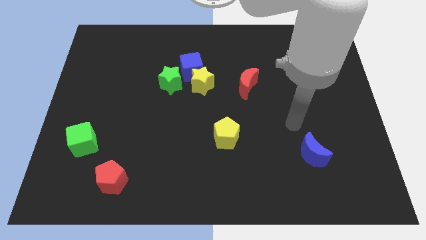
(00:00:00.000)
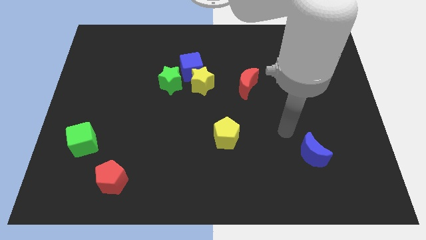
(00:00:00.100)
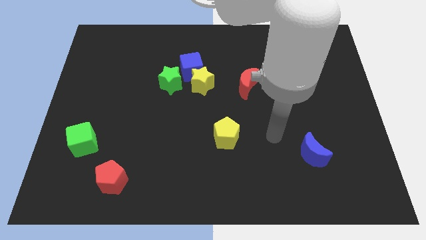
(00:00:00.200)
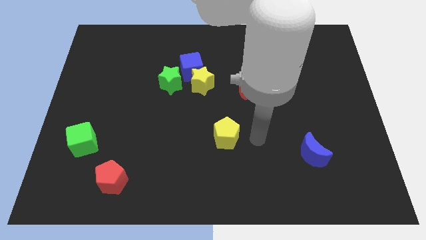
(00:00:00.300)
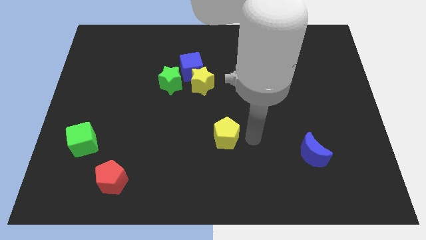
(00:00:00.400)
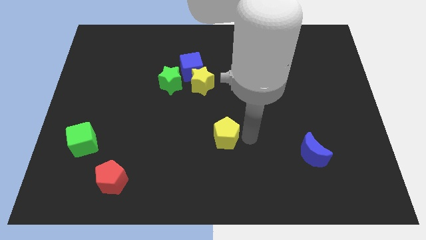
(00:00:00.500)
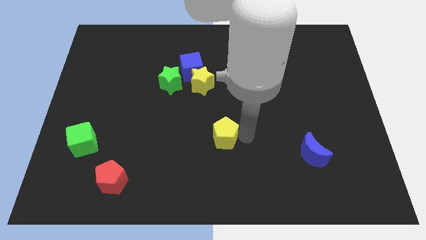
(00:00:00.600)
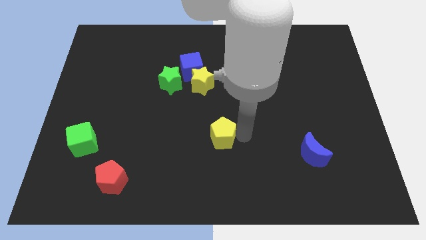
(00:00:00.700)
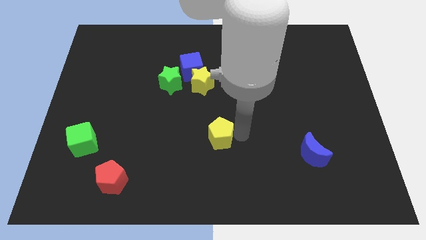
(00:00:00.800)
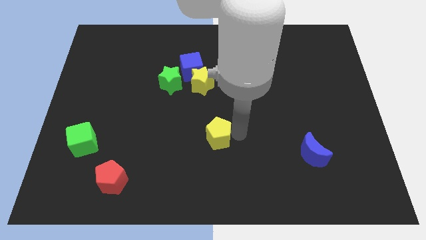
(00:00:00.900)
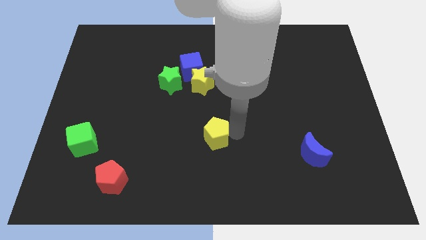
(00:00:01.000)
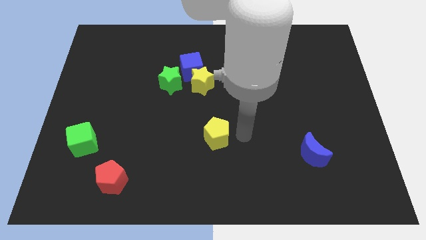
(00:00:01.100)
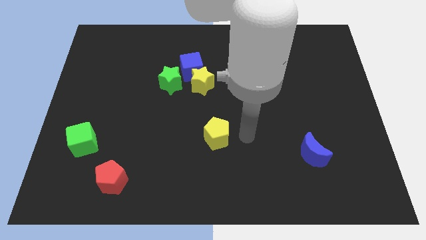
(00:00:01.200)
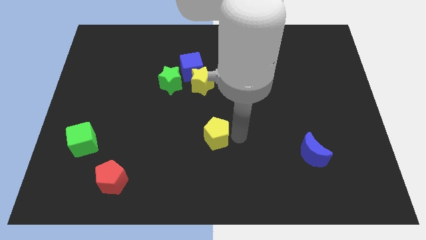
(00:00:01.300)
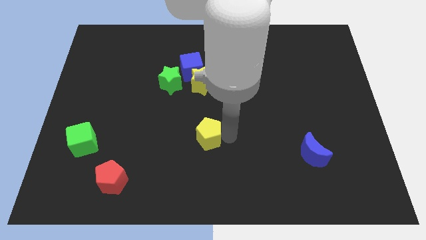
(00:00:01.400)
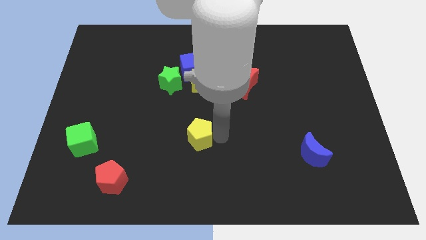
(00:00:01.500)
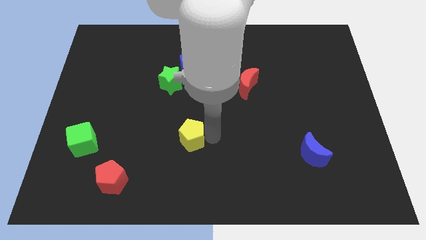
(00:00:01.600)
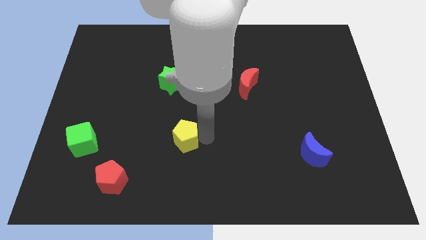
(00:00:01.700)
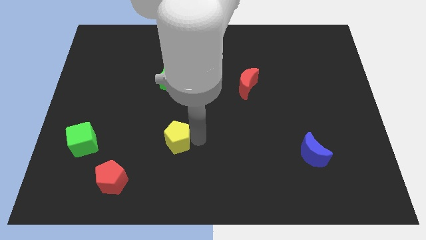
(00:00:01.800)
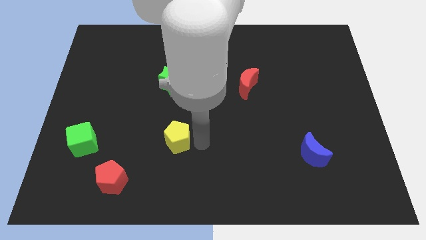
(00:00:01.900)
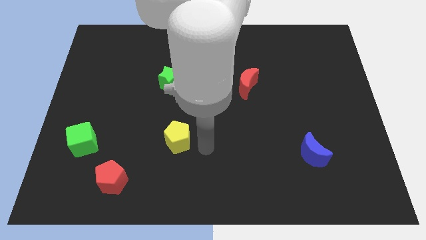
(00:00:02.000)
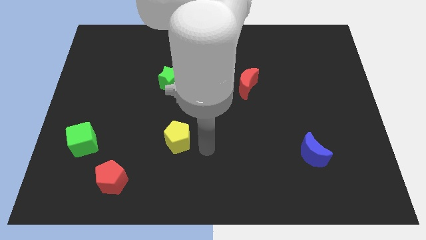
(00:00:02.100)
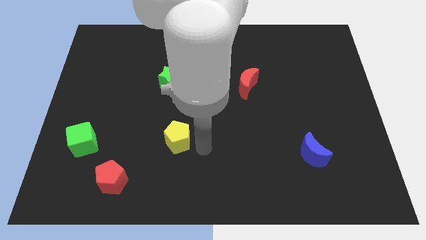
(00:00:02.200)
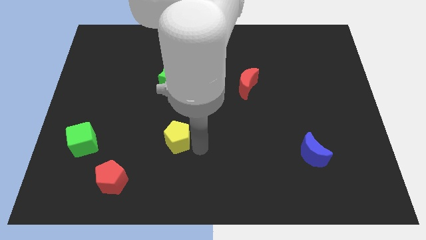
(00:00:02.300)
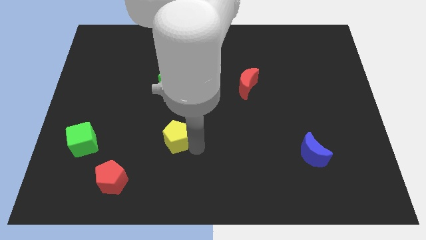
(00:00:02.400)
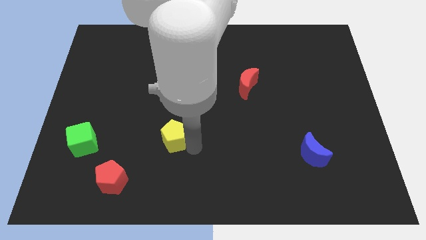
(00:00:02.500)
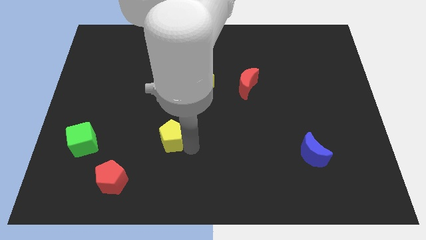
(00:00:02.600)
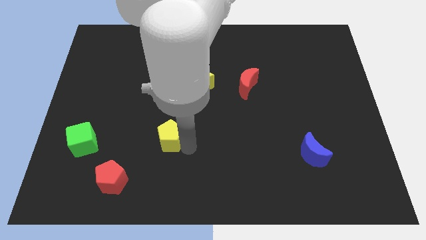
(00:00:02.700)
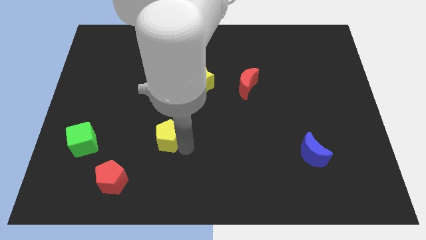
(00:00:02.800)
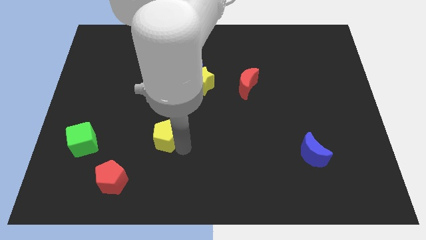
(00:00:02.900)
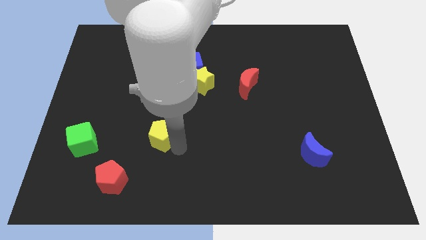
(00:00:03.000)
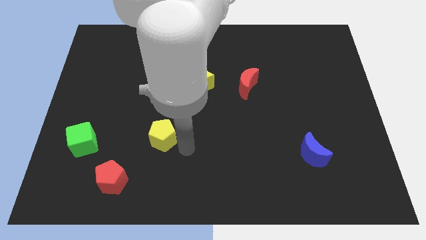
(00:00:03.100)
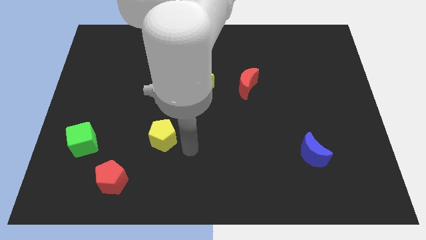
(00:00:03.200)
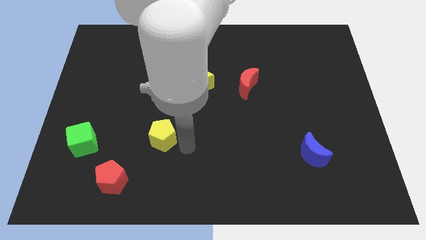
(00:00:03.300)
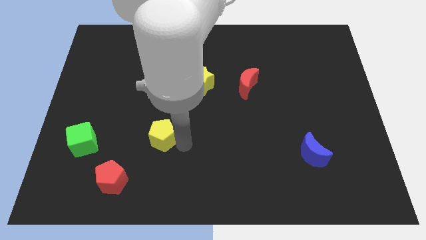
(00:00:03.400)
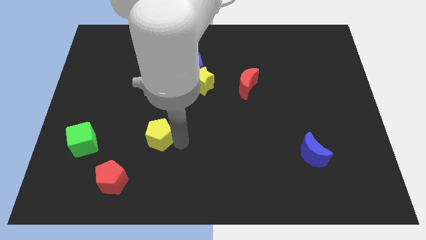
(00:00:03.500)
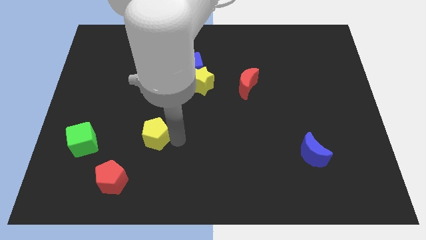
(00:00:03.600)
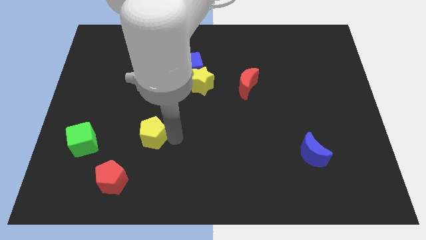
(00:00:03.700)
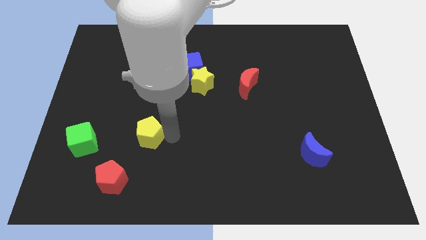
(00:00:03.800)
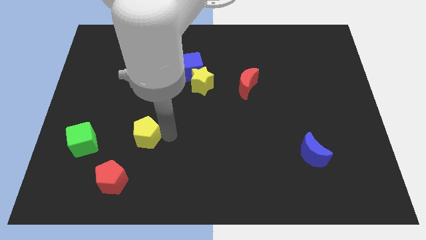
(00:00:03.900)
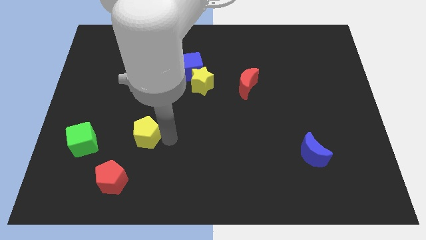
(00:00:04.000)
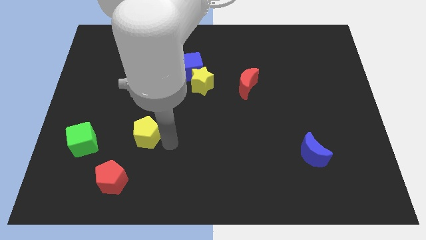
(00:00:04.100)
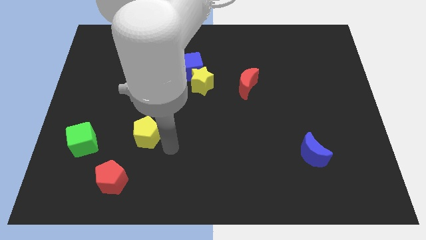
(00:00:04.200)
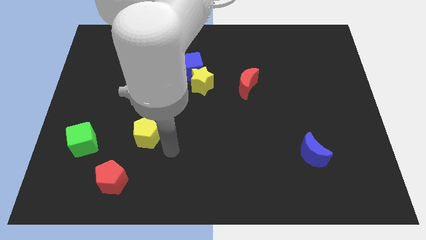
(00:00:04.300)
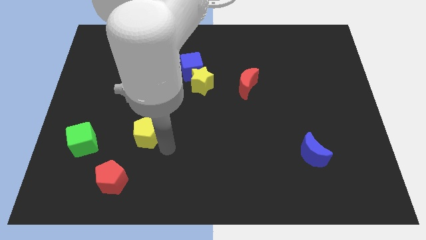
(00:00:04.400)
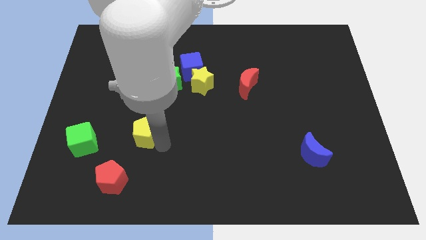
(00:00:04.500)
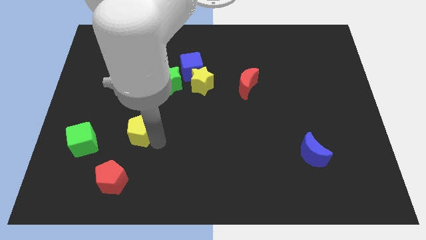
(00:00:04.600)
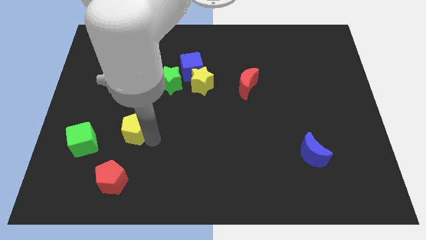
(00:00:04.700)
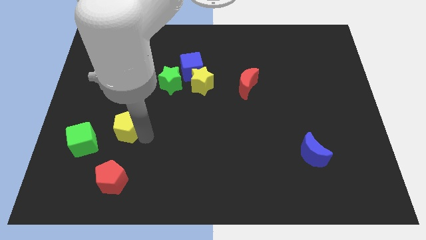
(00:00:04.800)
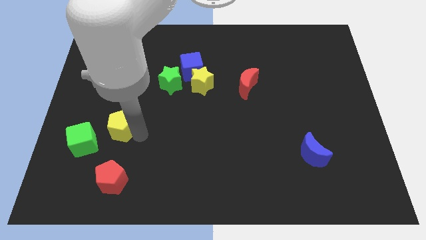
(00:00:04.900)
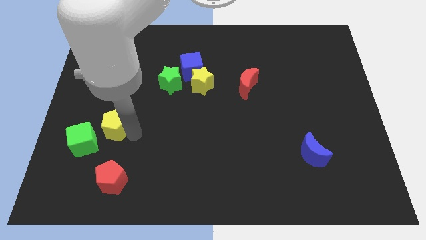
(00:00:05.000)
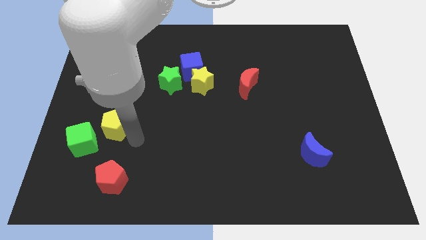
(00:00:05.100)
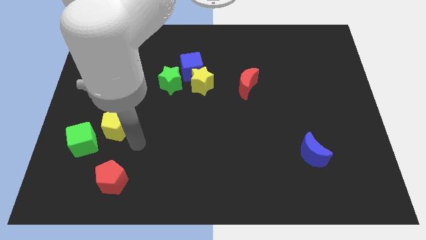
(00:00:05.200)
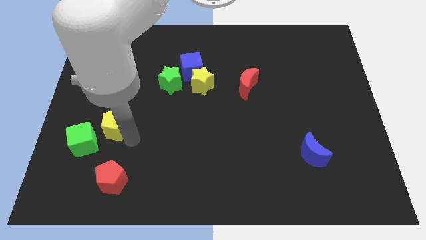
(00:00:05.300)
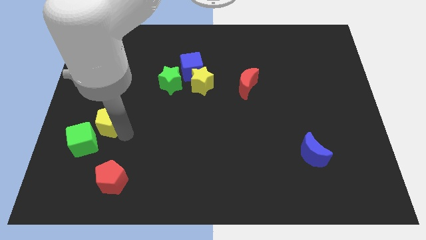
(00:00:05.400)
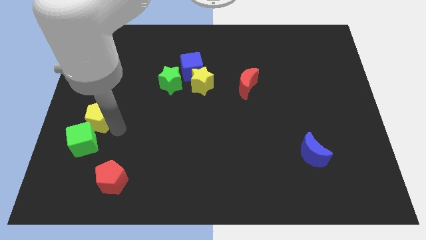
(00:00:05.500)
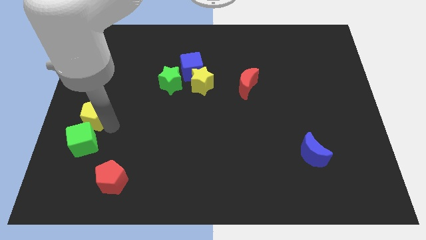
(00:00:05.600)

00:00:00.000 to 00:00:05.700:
slide the yellow pentagon to the center left

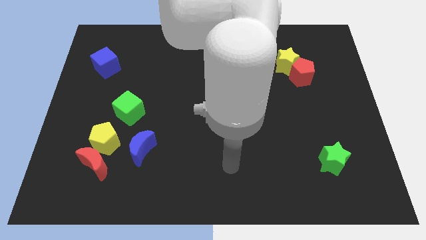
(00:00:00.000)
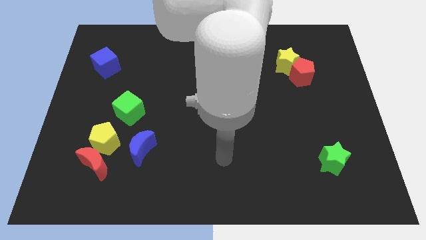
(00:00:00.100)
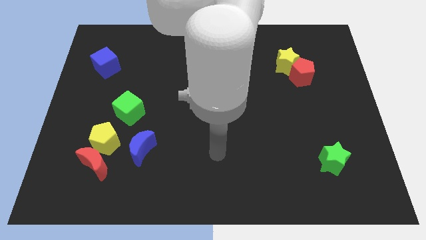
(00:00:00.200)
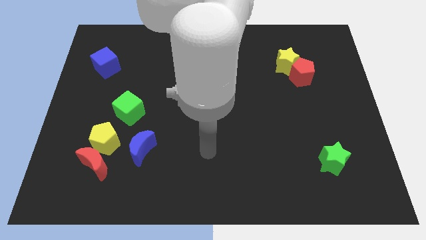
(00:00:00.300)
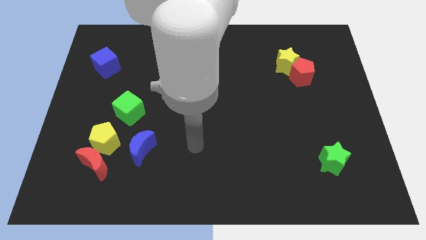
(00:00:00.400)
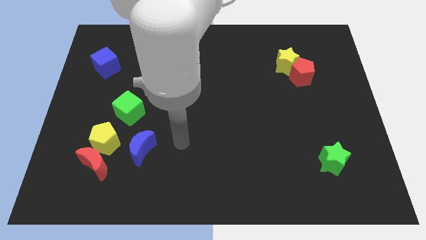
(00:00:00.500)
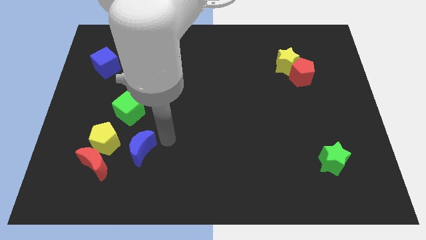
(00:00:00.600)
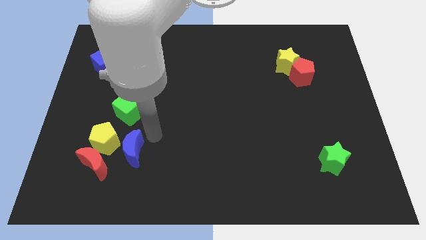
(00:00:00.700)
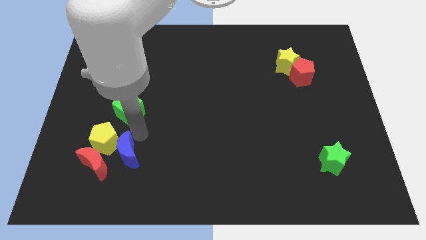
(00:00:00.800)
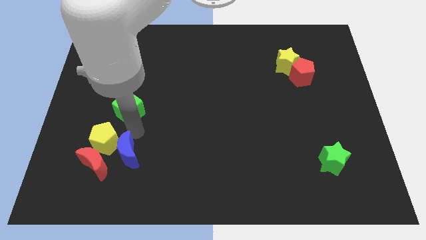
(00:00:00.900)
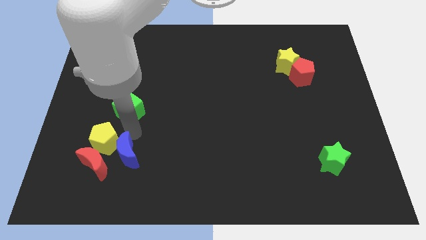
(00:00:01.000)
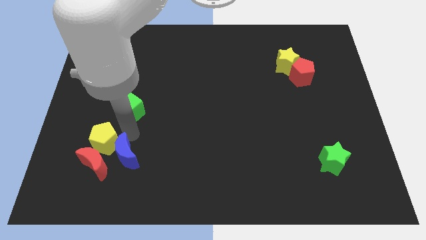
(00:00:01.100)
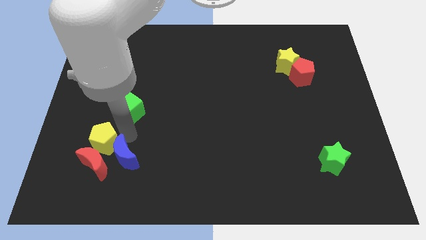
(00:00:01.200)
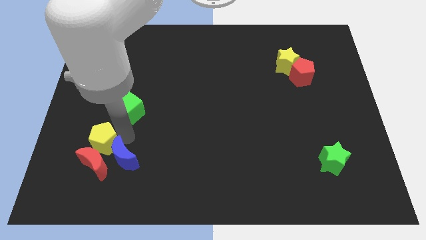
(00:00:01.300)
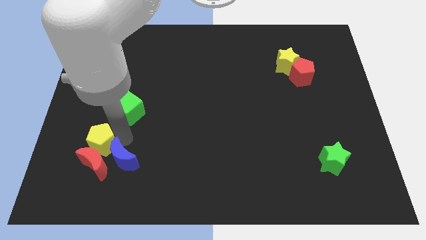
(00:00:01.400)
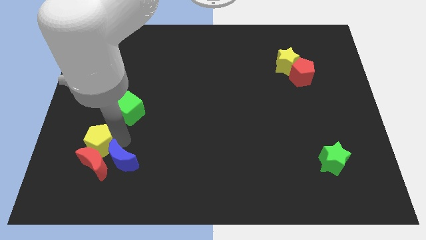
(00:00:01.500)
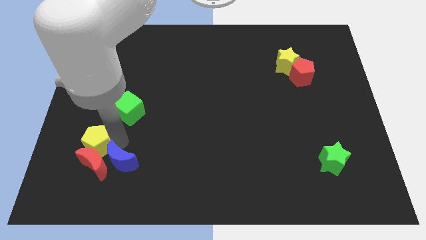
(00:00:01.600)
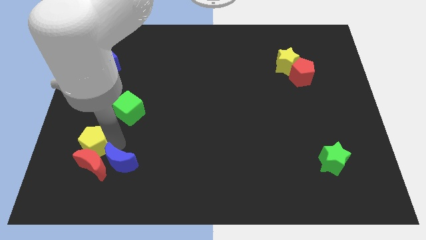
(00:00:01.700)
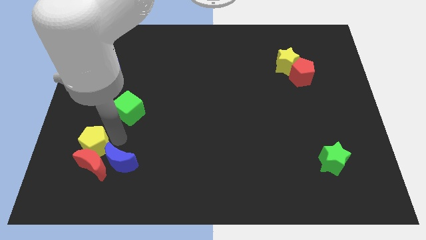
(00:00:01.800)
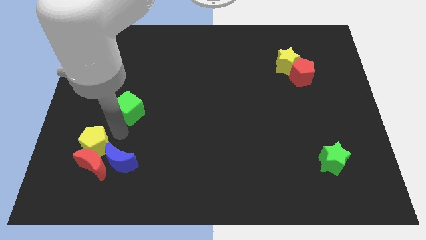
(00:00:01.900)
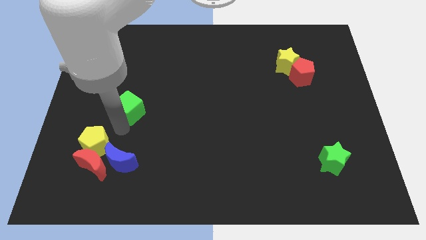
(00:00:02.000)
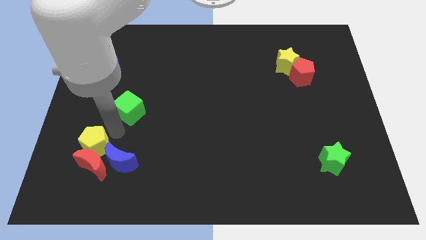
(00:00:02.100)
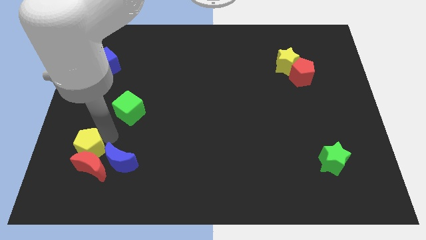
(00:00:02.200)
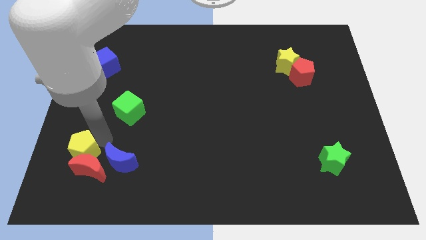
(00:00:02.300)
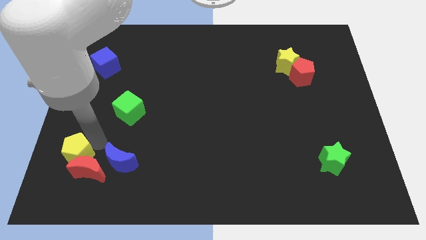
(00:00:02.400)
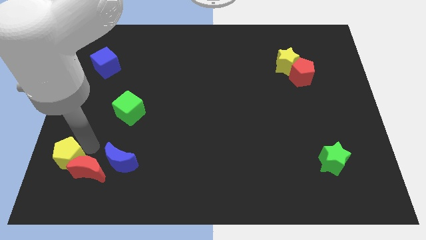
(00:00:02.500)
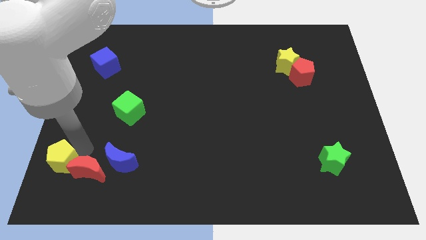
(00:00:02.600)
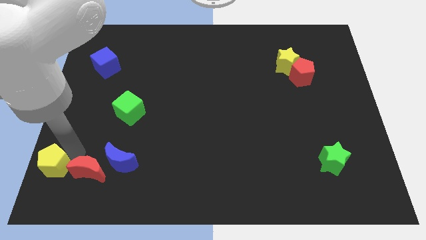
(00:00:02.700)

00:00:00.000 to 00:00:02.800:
move the yellow pentagon to the bottom left corner
